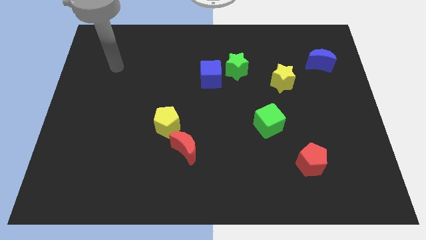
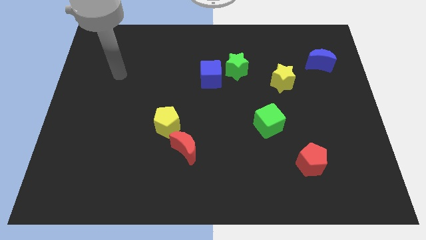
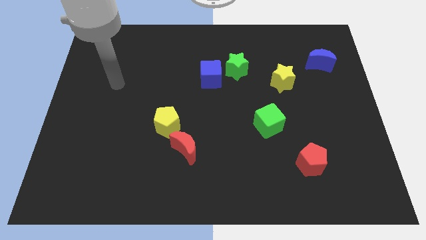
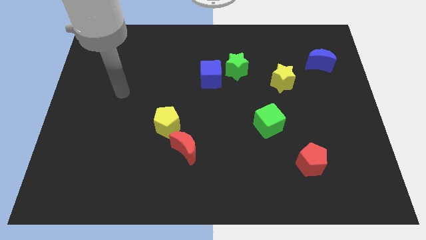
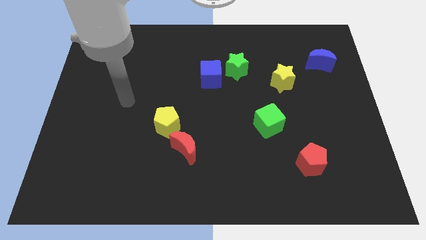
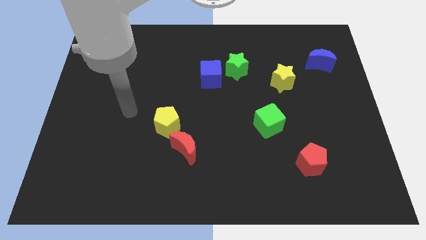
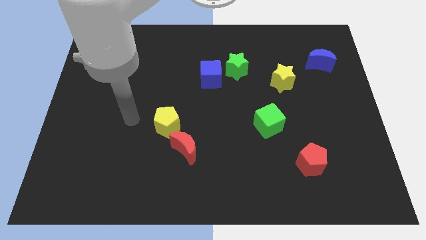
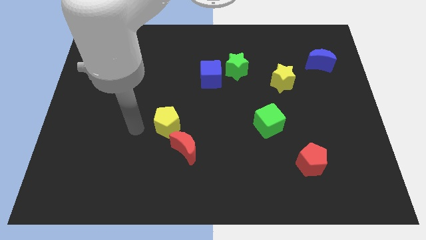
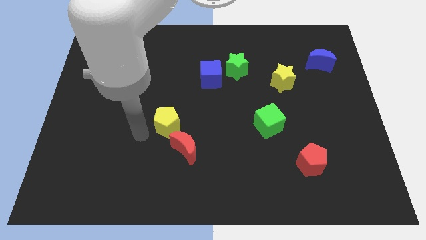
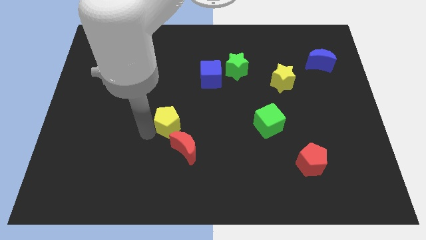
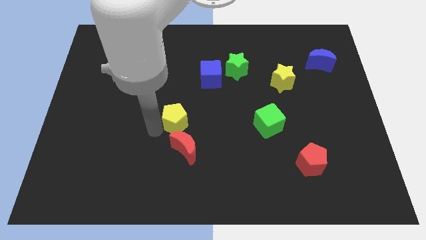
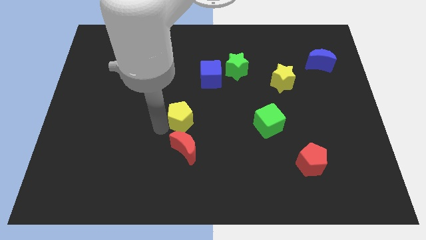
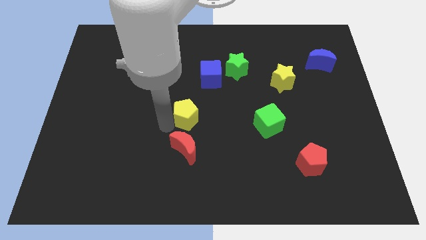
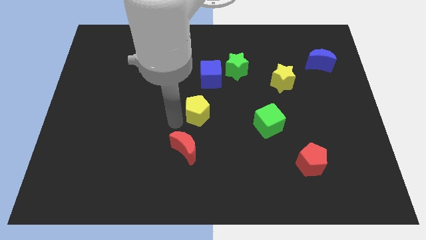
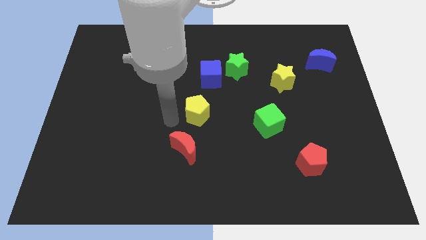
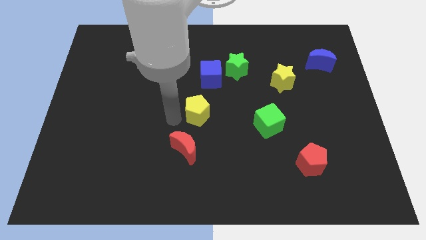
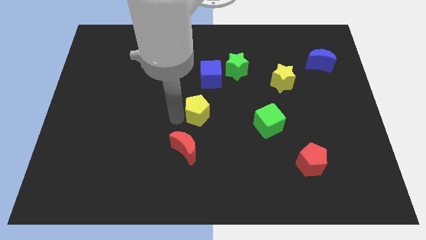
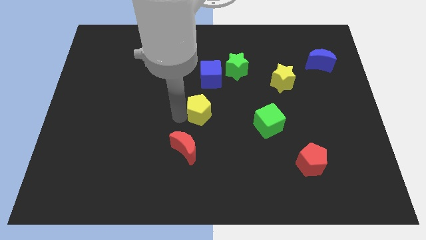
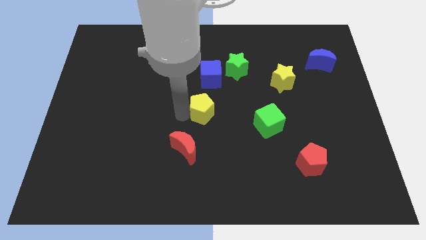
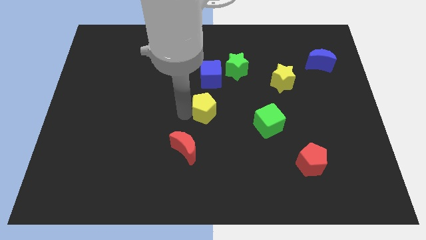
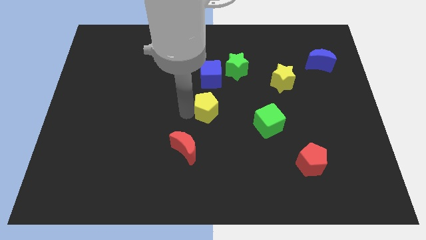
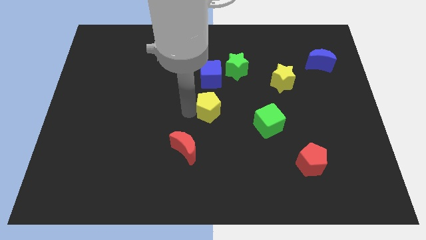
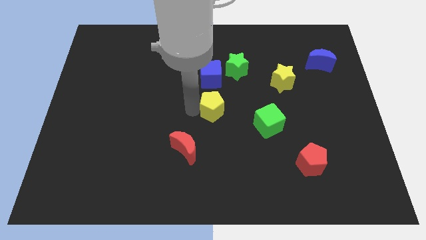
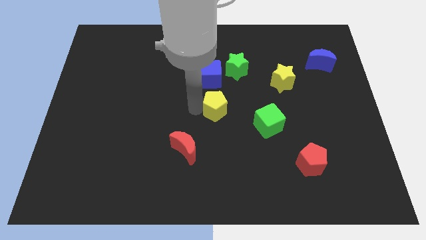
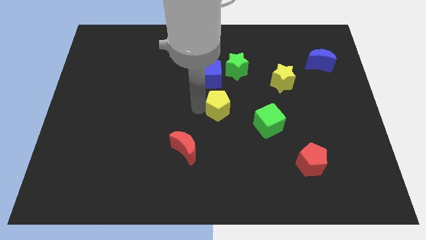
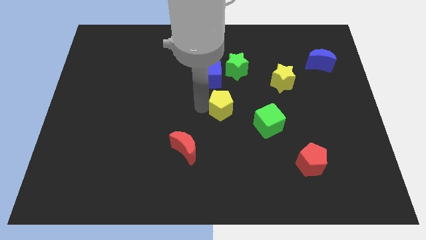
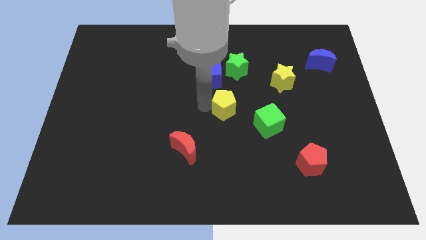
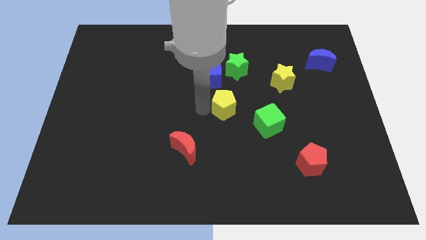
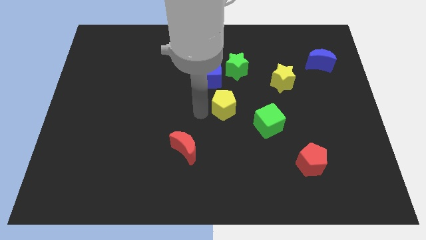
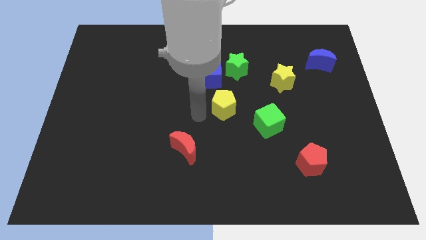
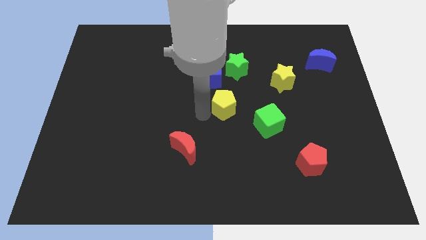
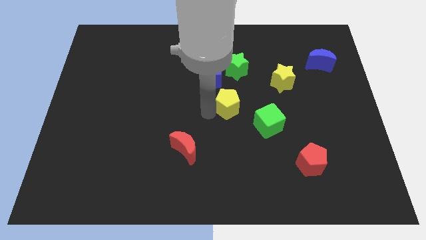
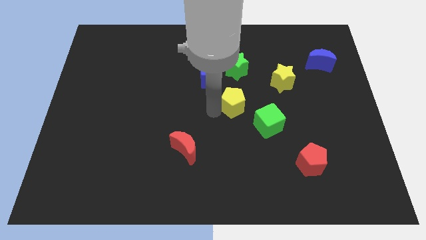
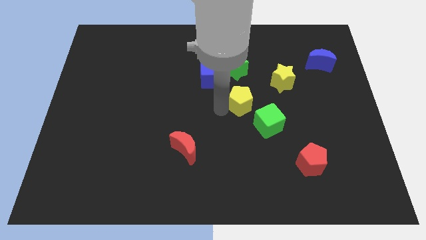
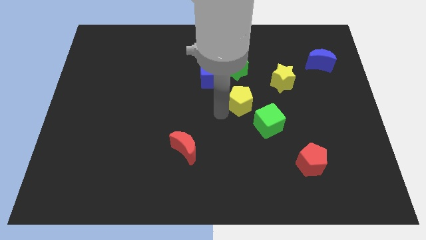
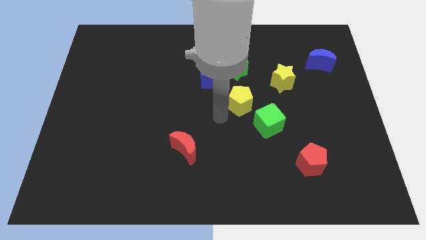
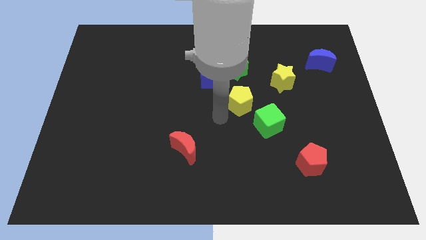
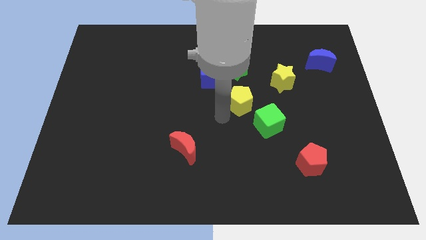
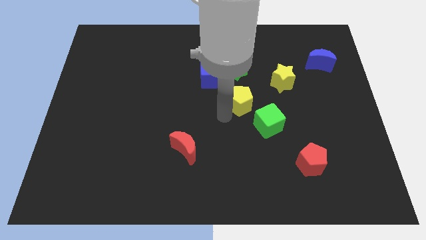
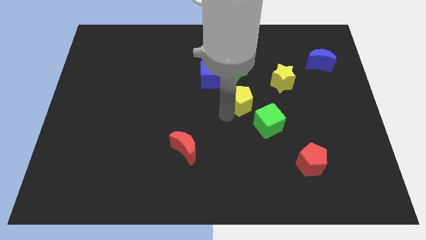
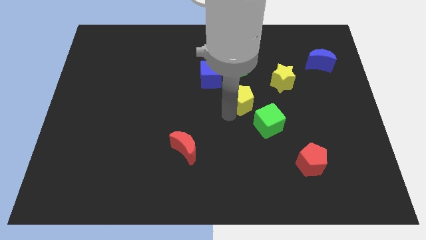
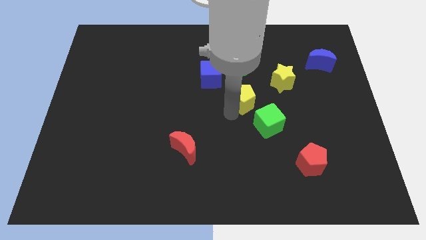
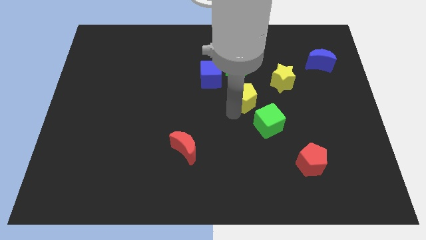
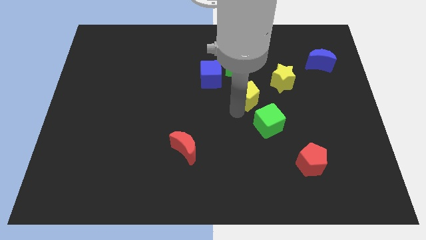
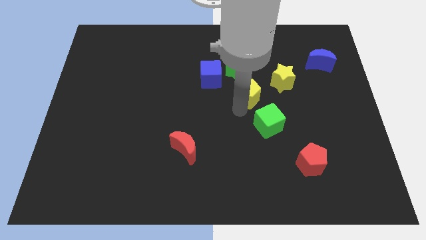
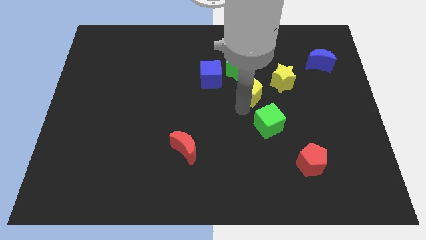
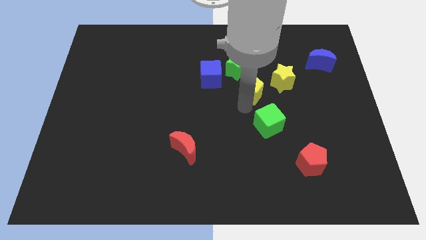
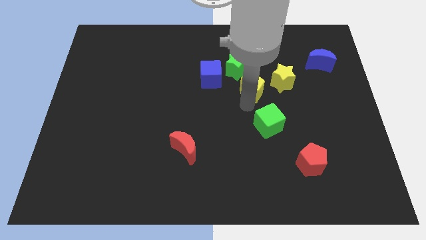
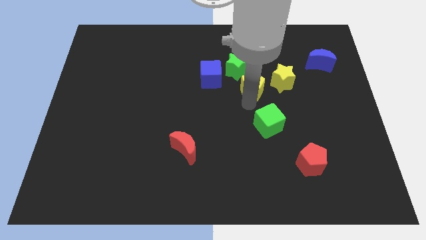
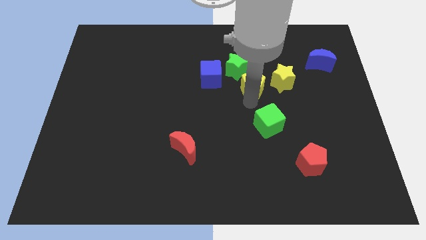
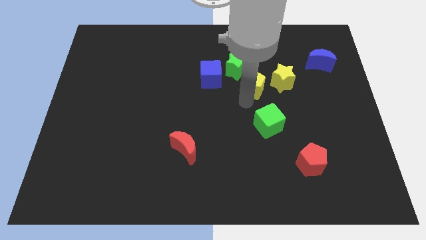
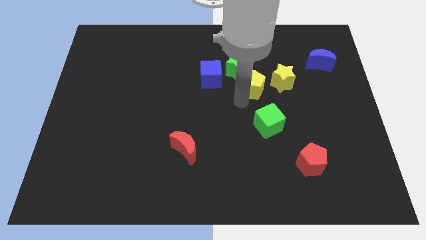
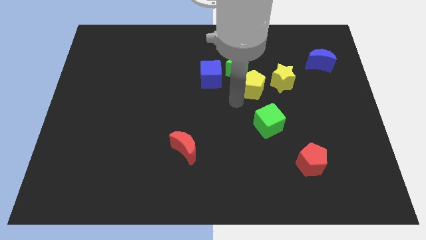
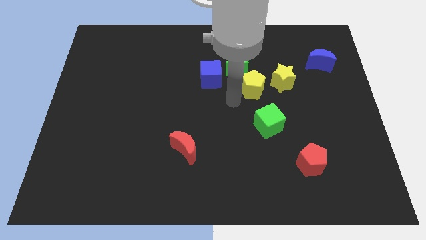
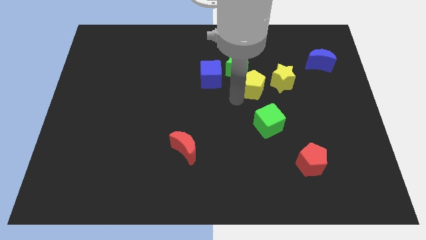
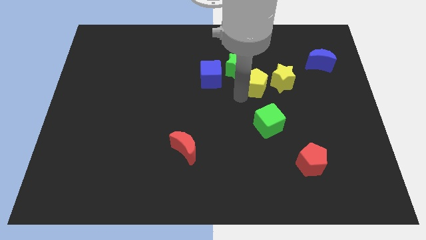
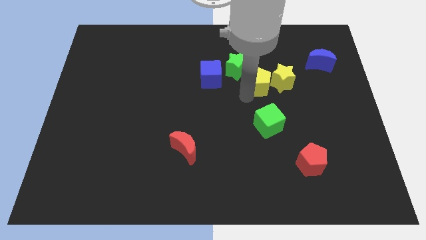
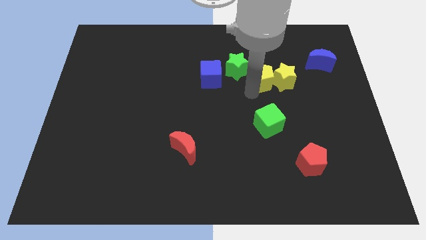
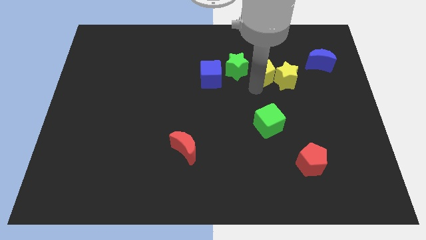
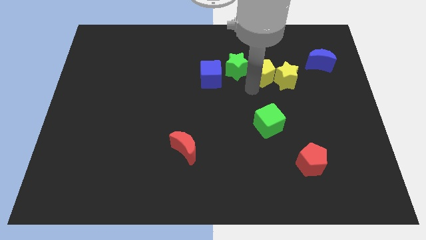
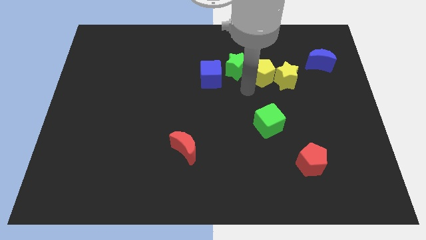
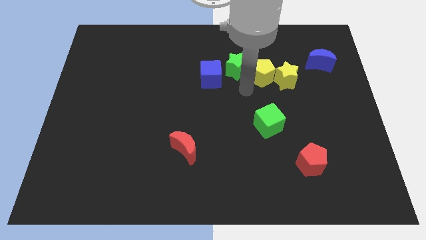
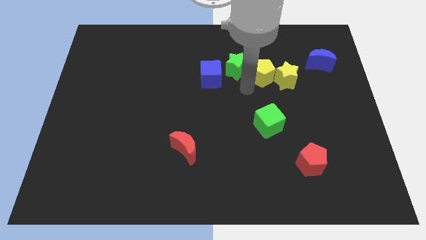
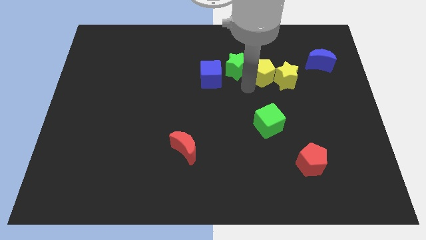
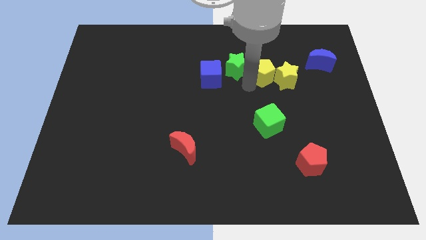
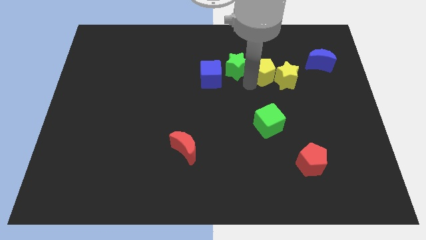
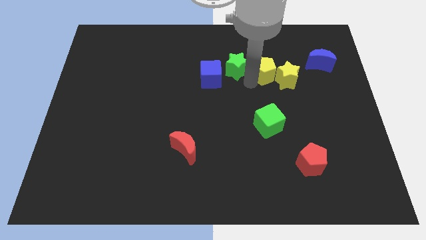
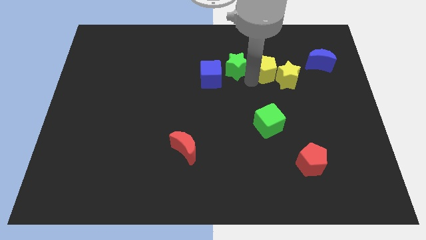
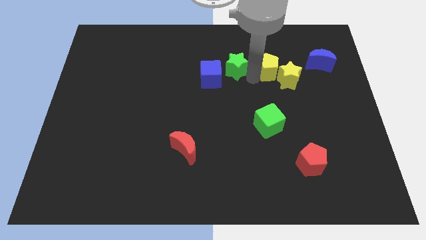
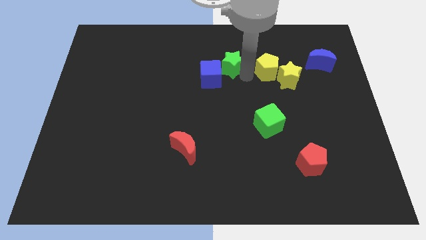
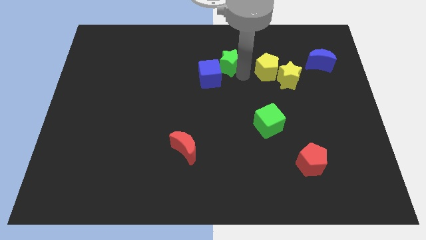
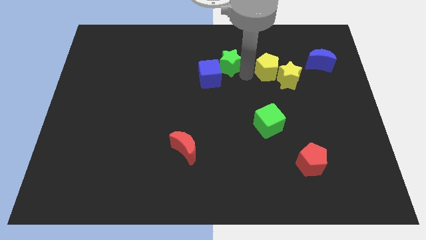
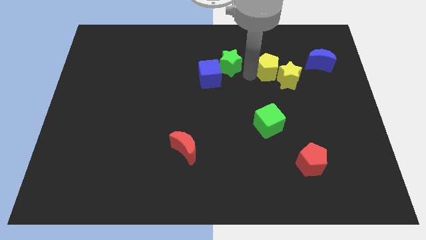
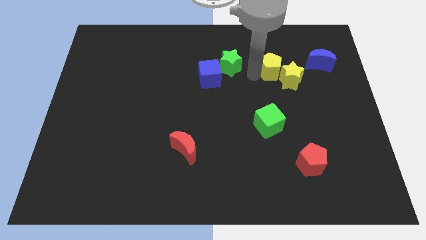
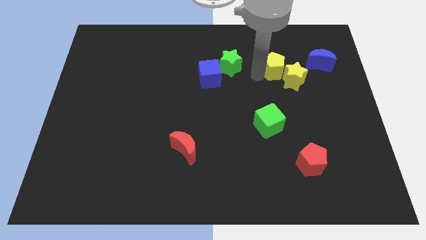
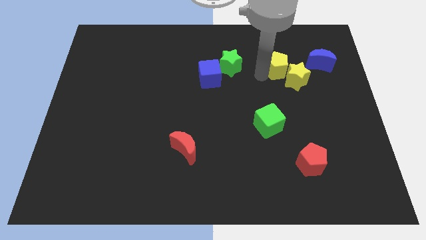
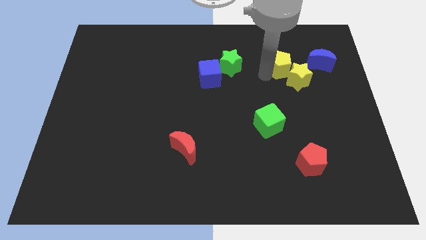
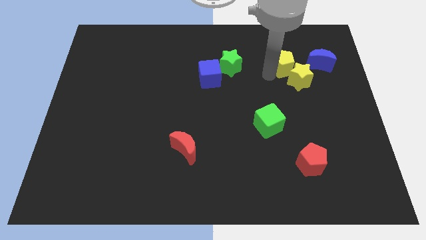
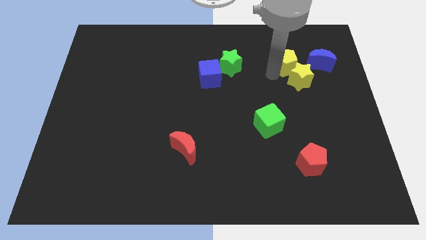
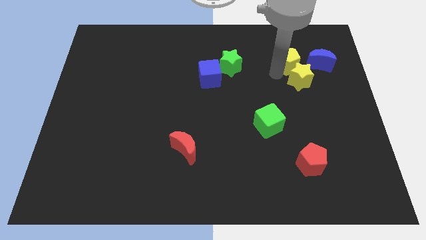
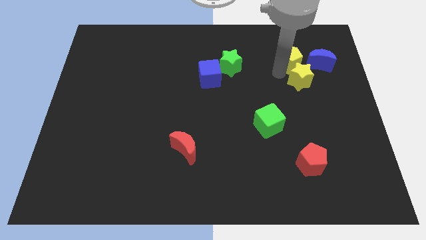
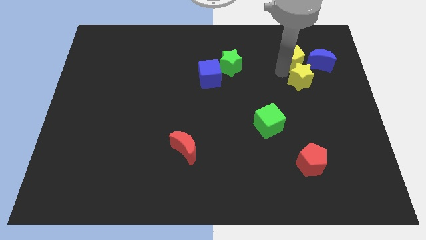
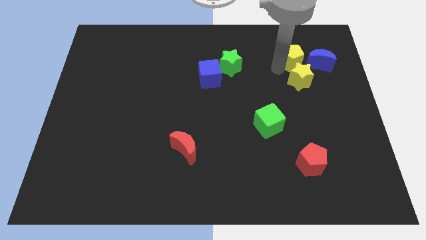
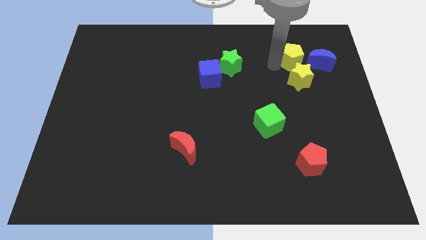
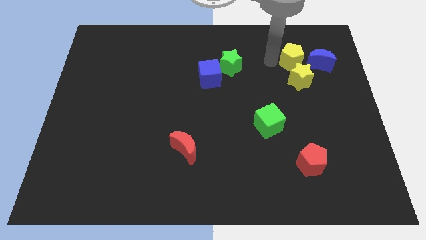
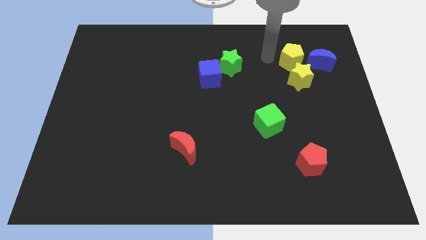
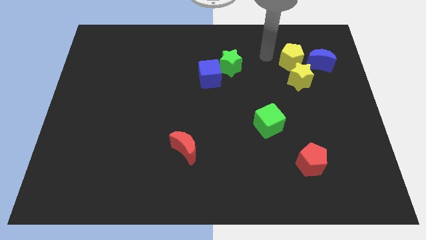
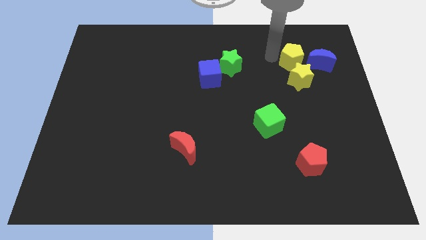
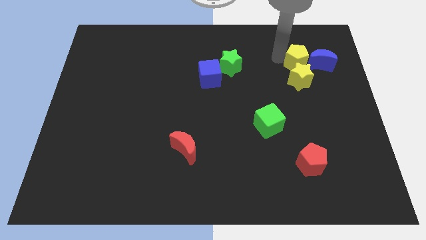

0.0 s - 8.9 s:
slide the yellow pentagon to the top right of the yellow star
